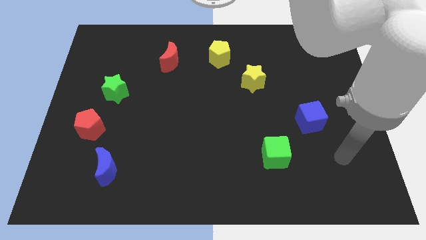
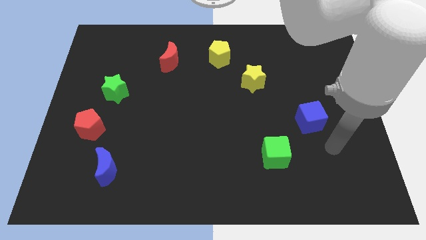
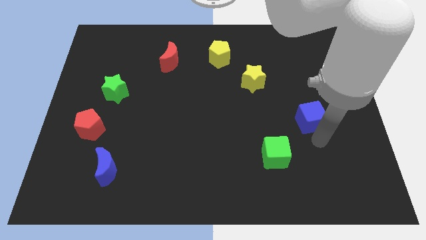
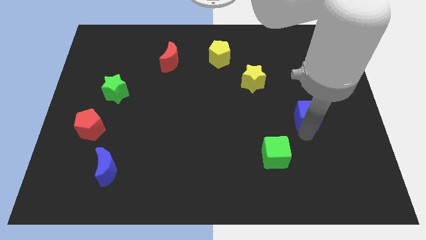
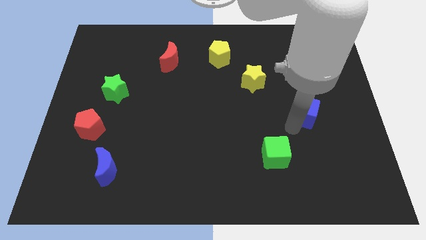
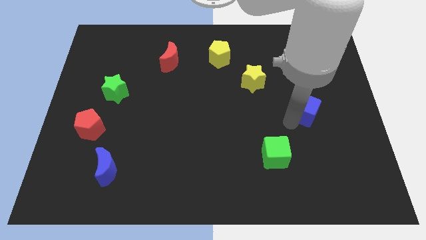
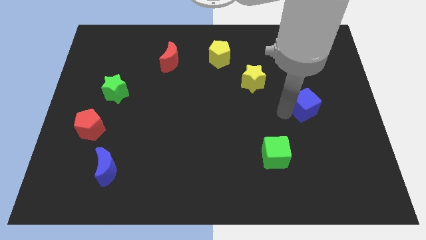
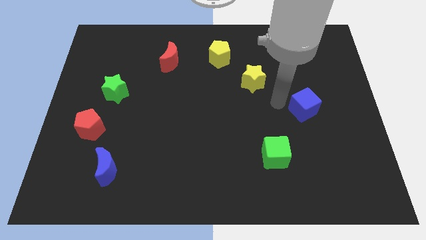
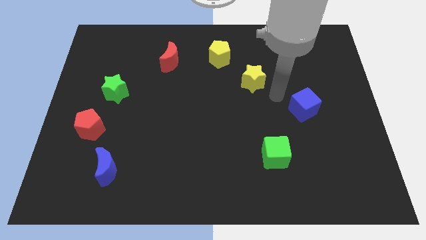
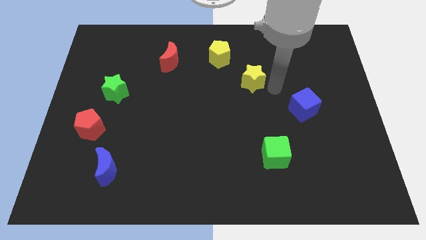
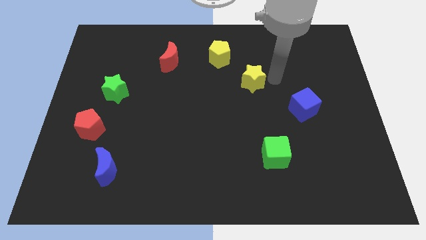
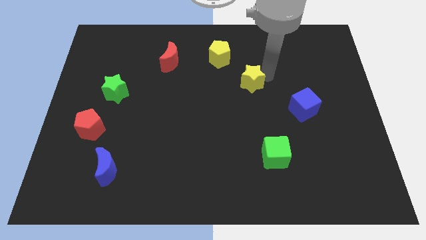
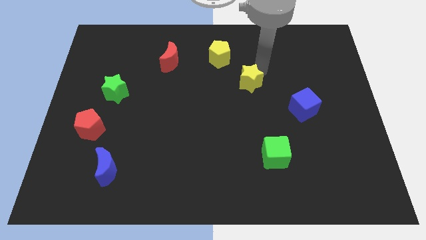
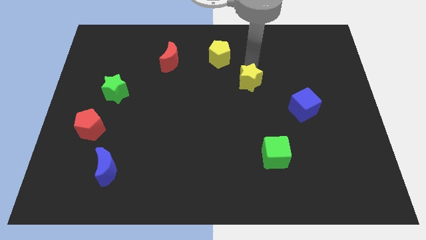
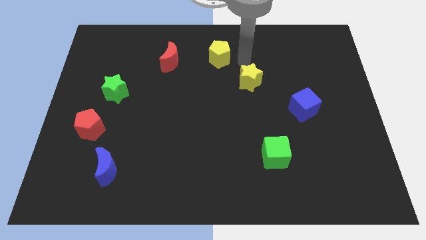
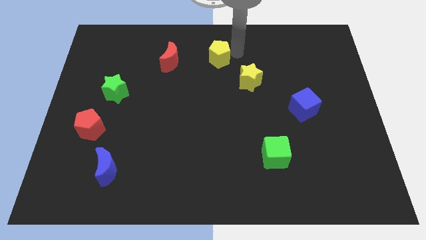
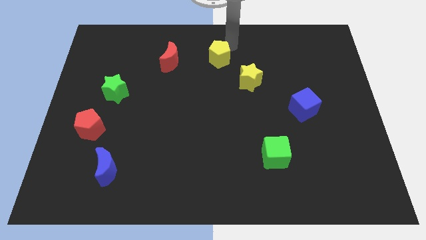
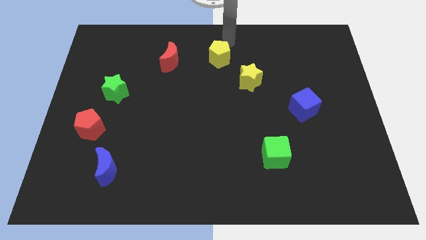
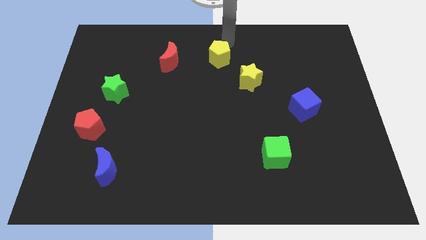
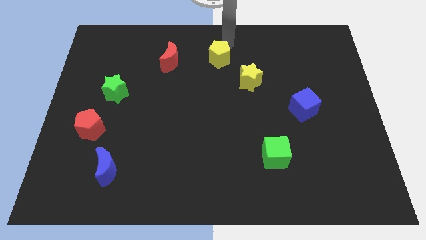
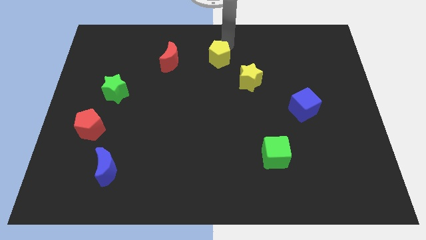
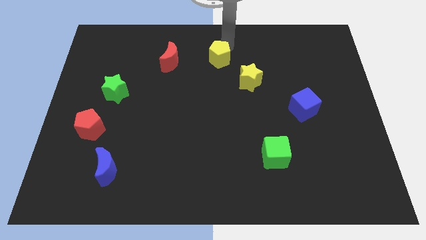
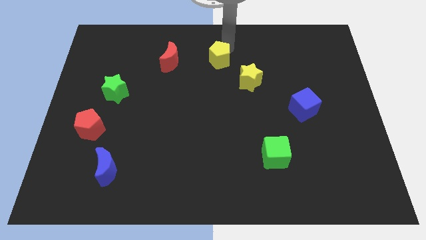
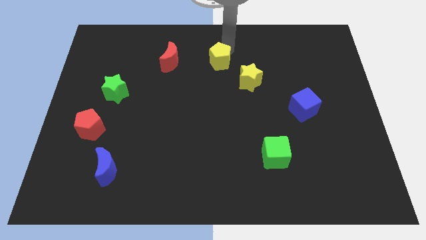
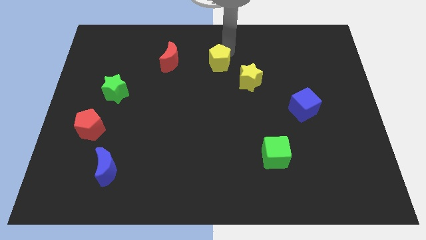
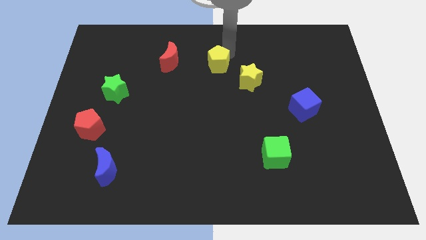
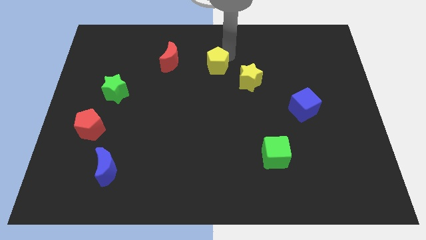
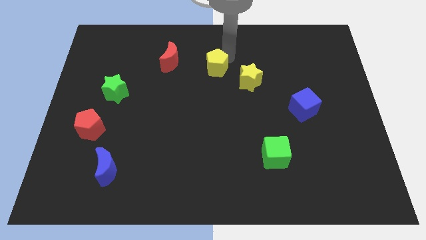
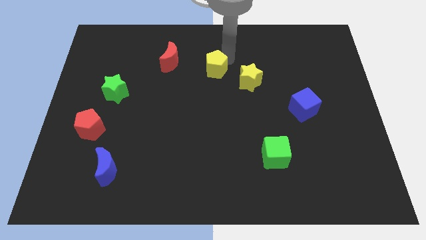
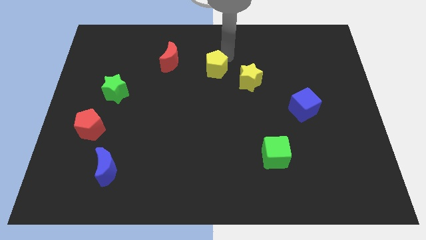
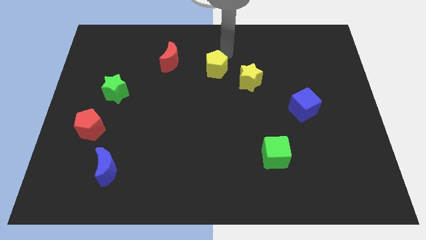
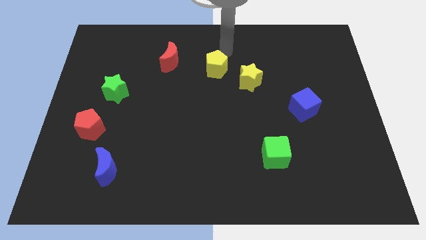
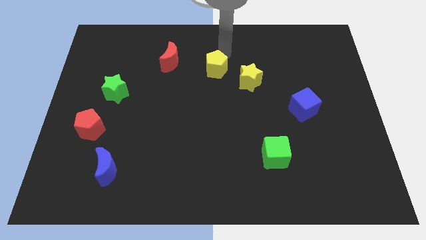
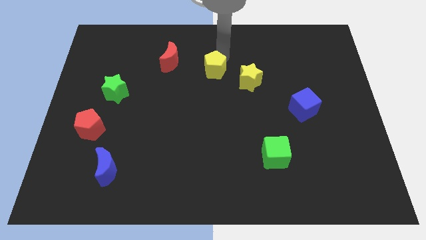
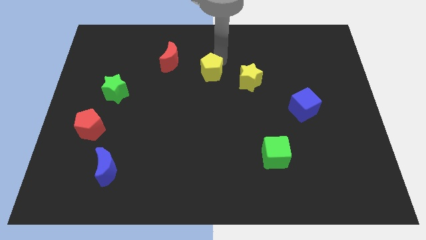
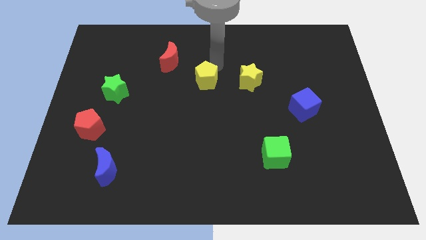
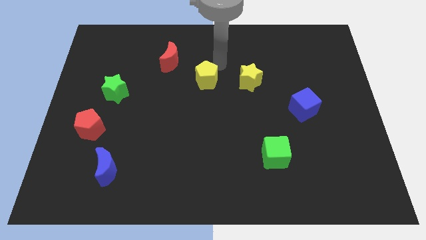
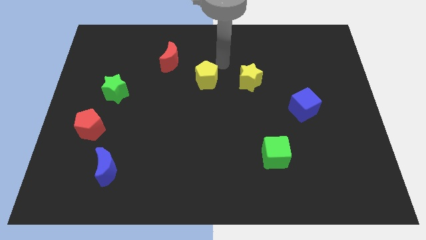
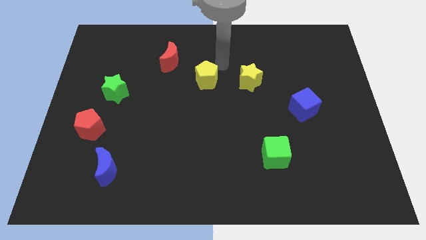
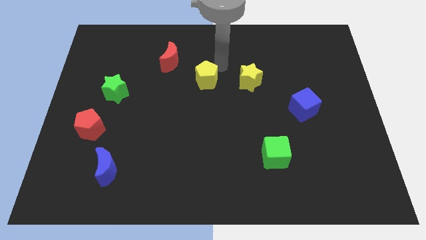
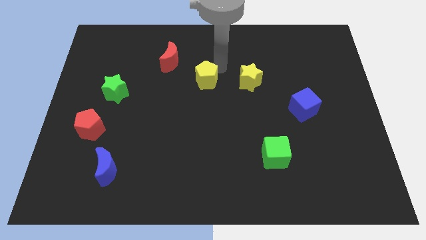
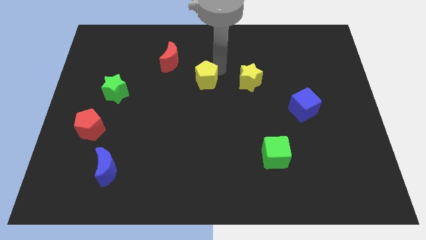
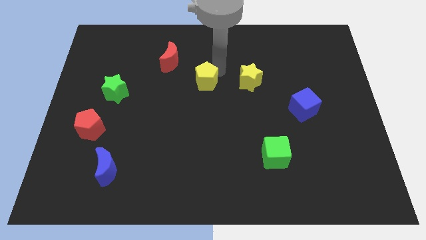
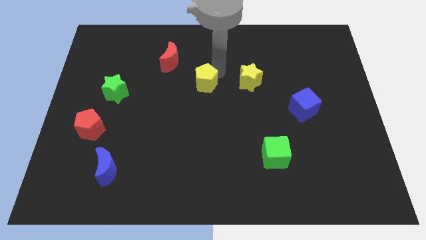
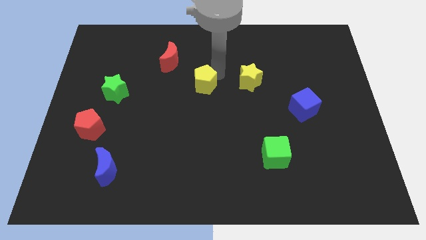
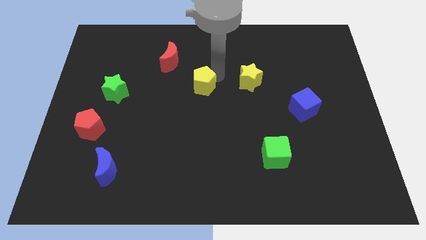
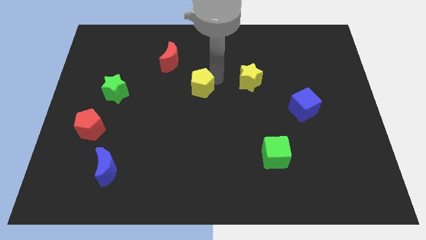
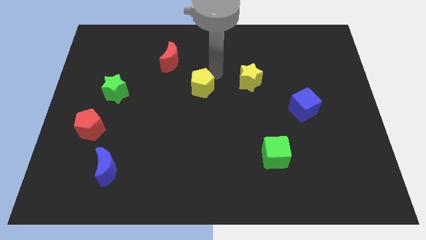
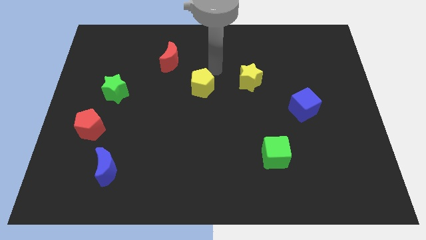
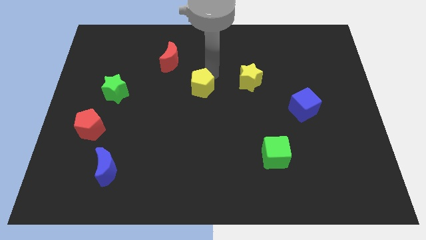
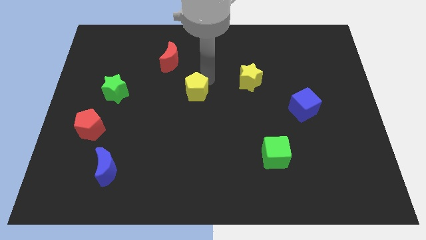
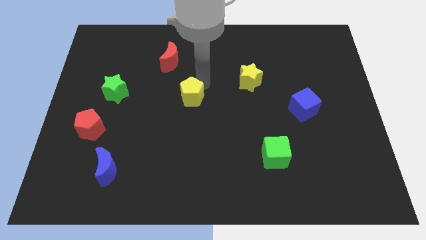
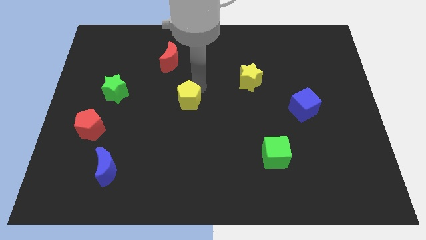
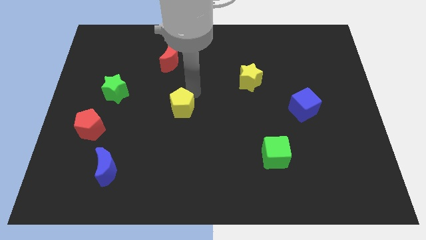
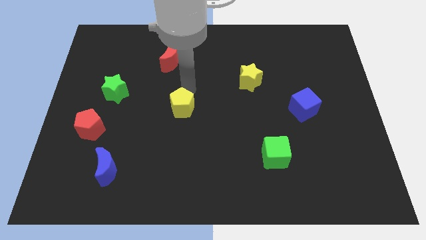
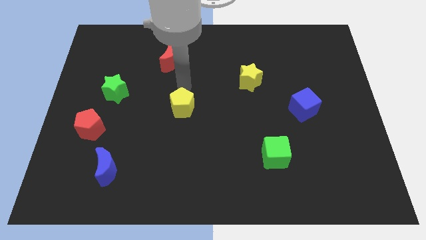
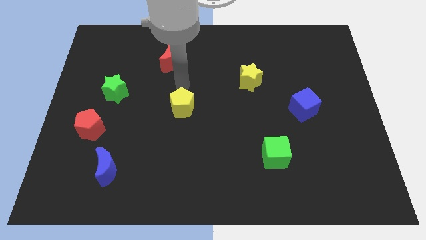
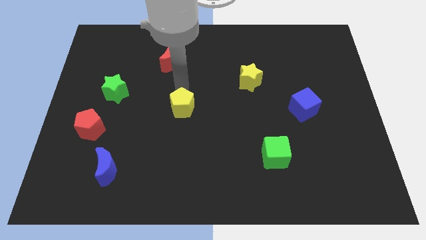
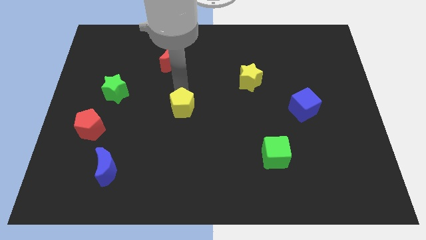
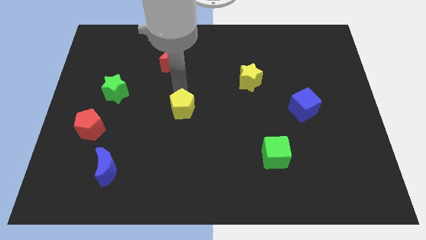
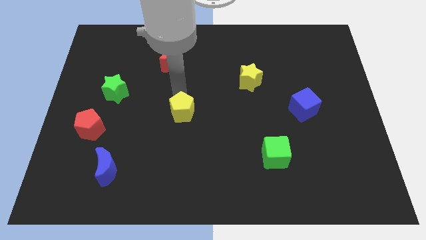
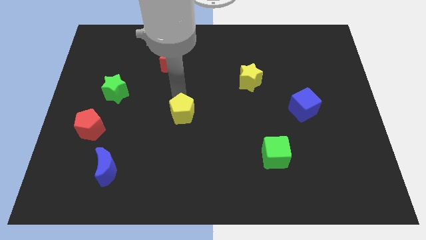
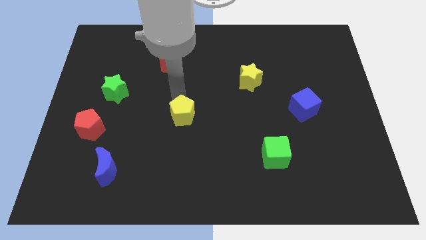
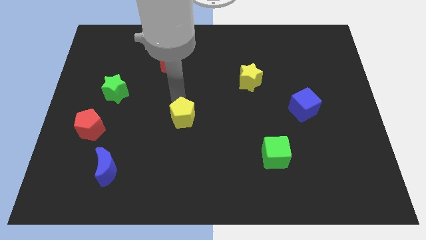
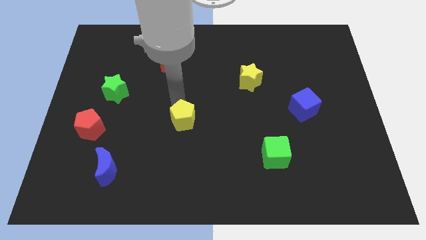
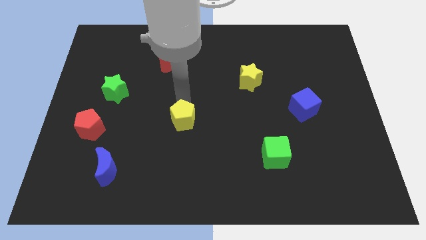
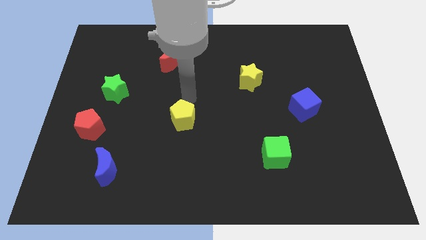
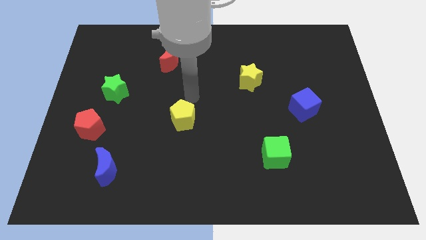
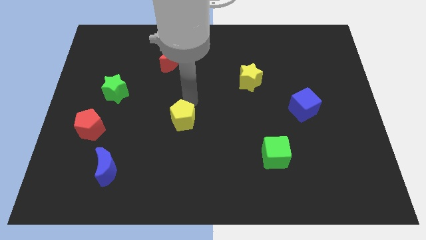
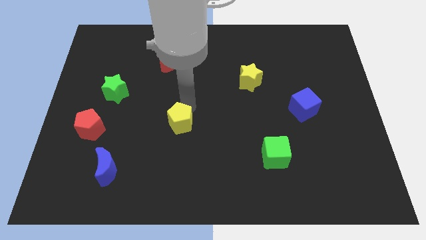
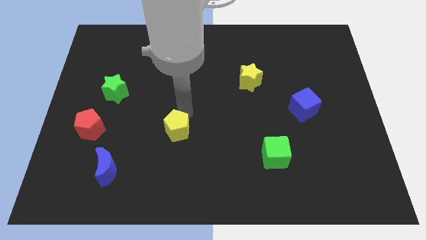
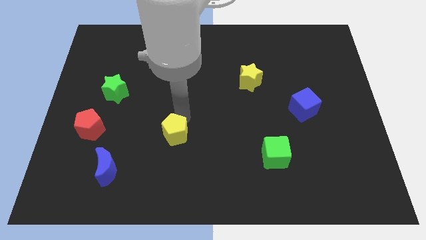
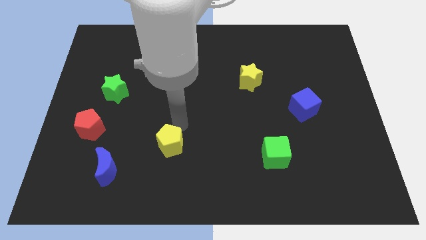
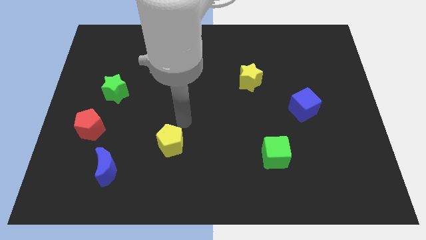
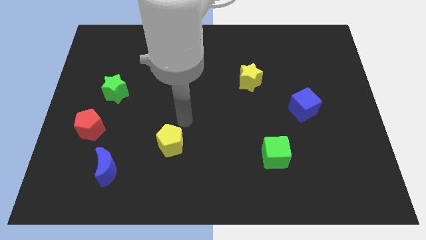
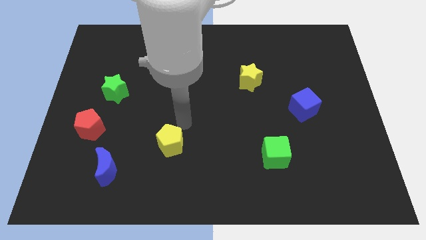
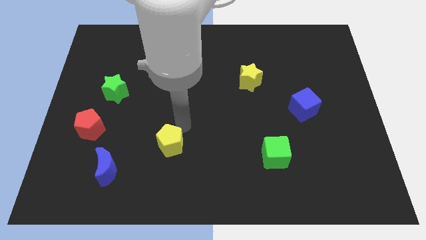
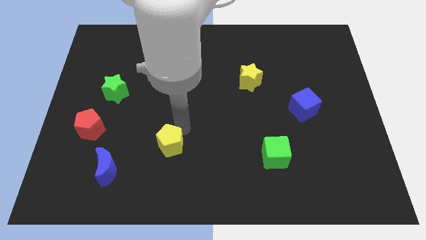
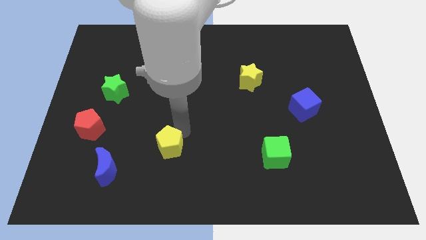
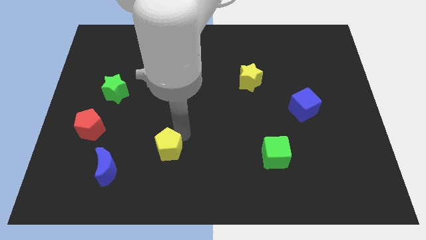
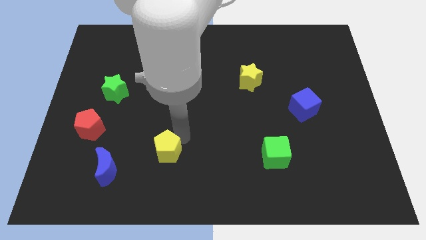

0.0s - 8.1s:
put the yellow pentagon to the right of the blue moon
